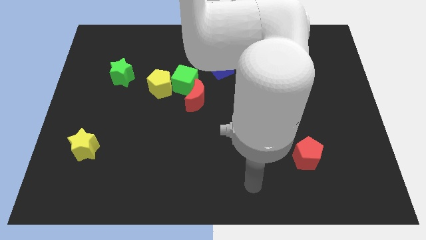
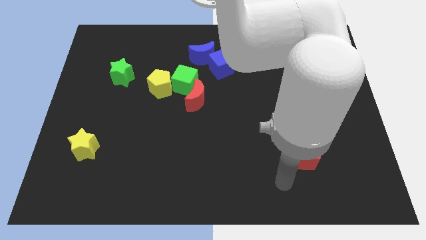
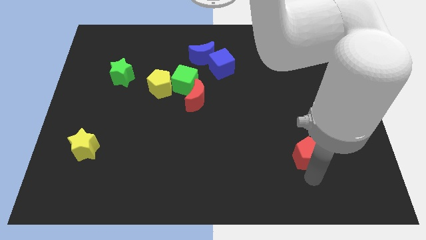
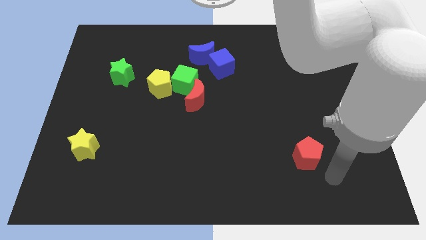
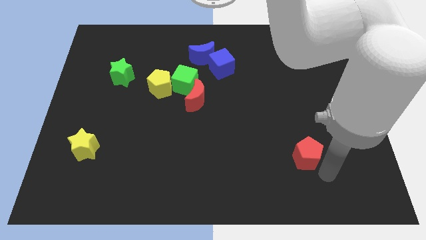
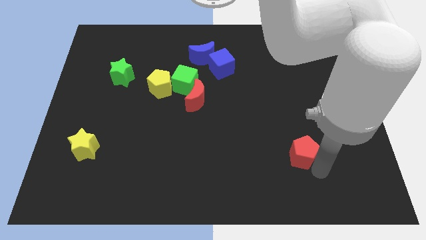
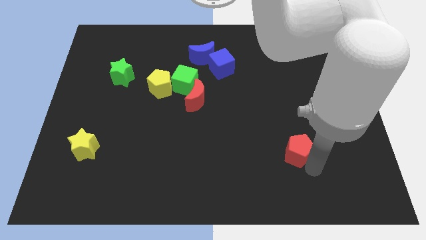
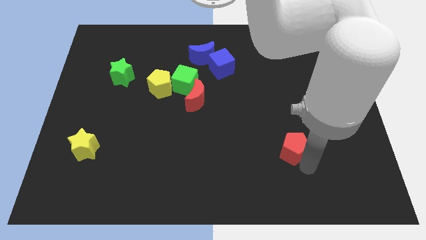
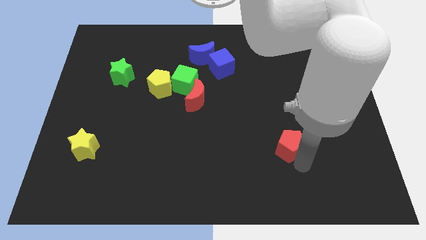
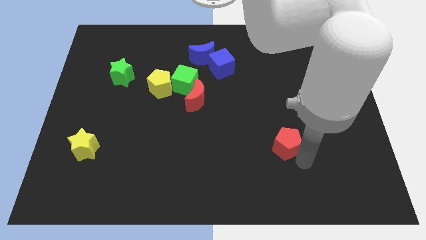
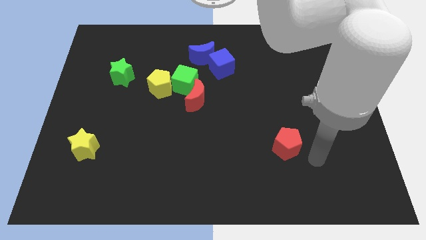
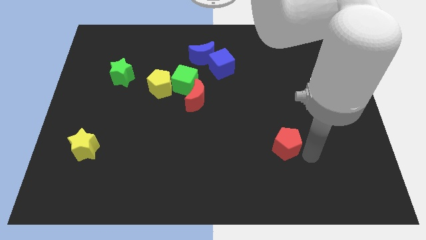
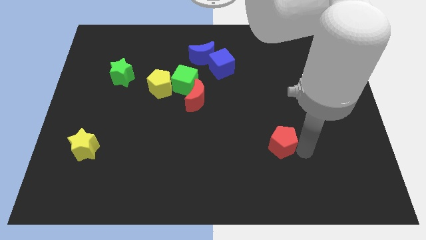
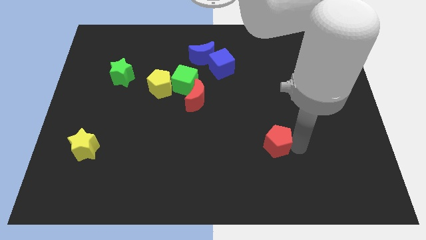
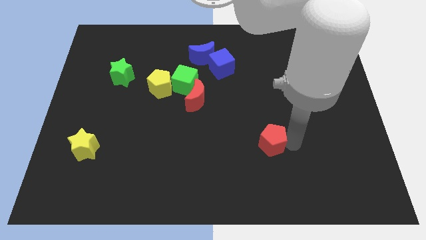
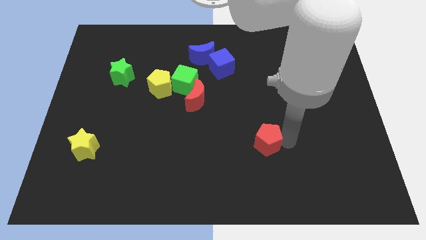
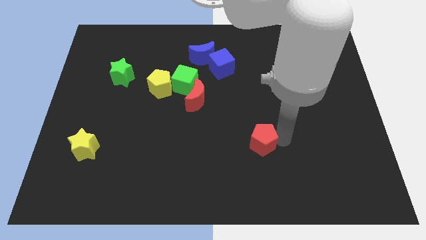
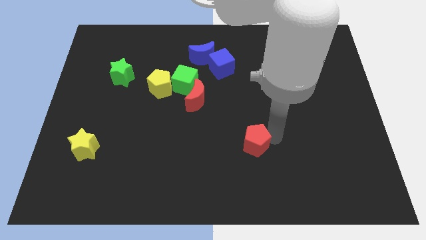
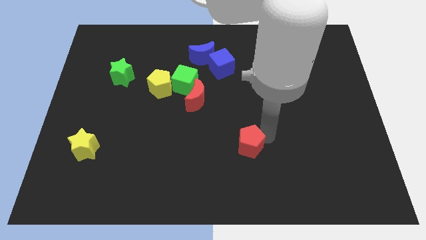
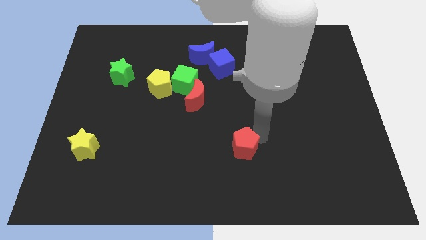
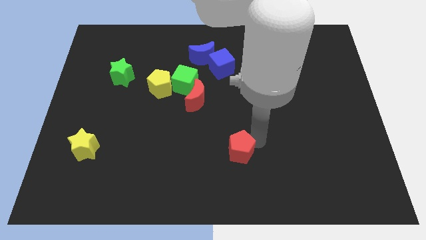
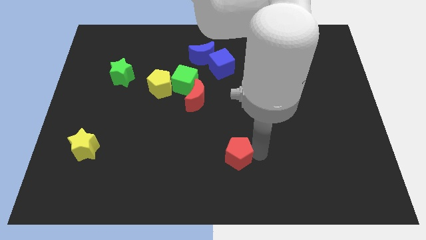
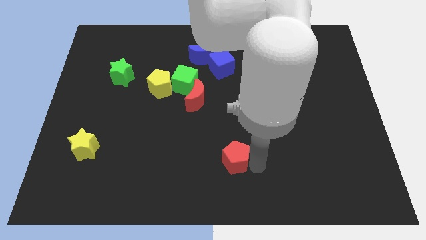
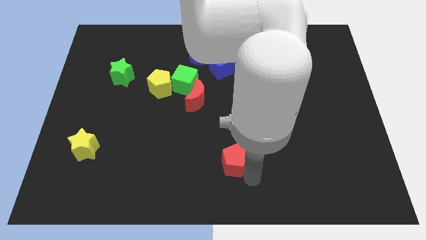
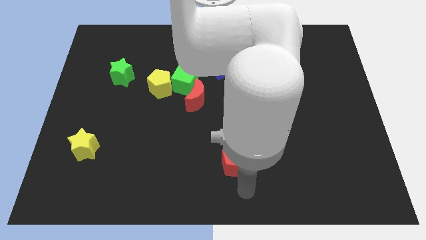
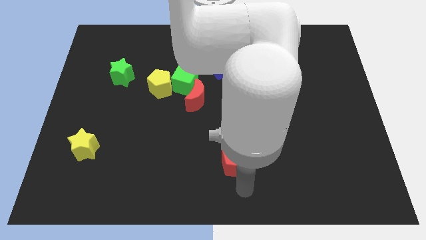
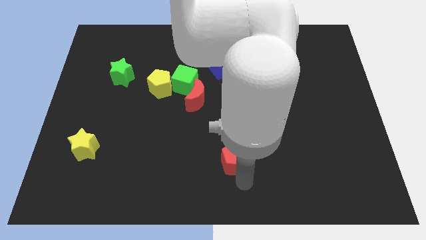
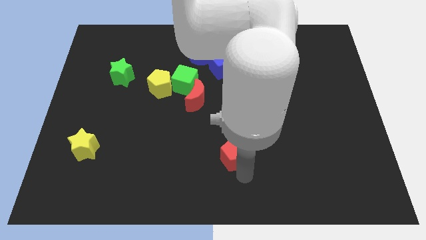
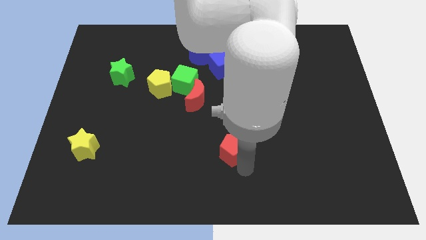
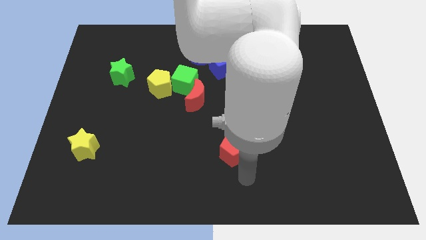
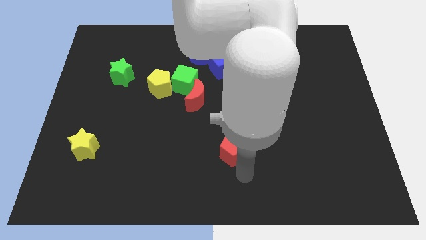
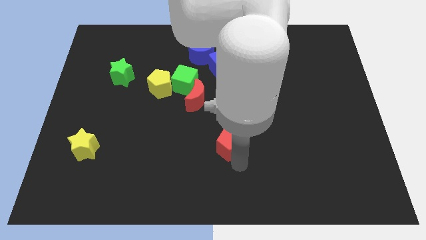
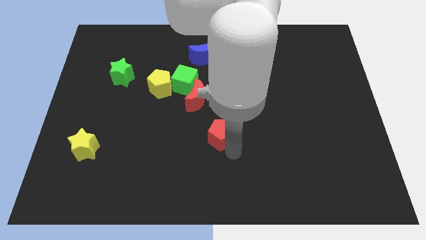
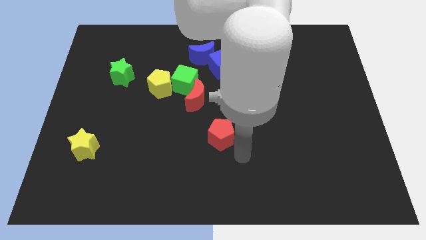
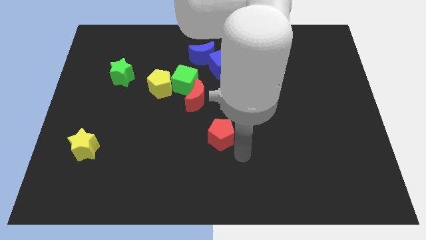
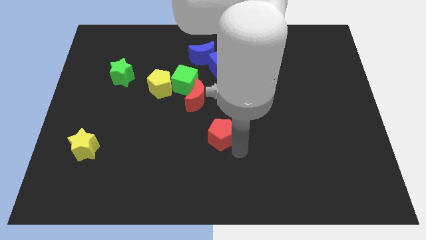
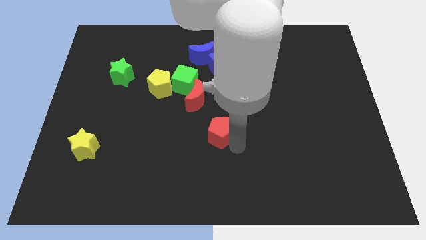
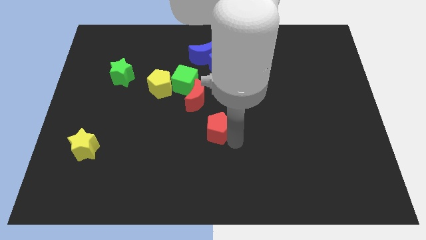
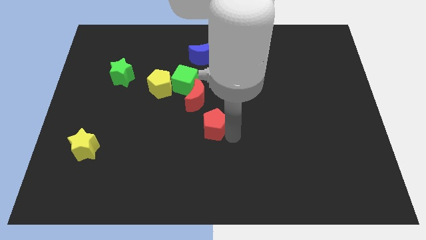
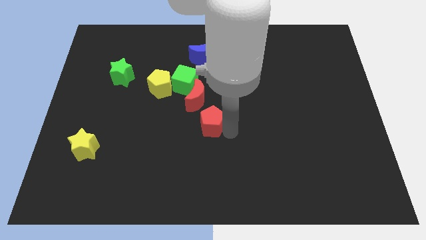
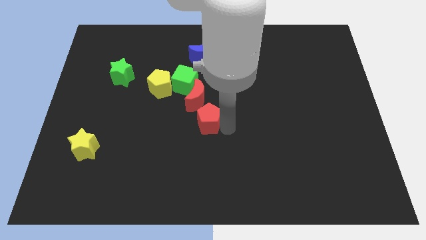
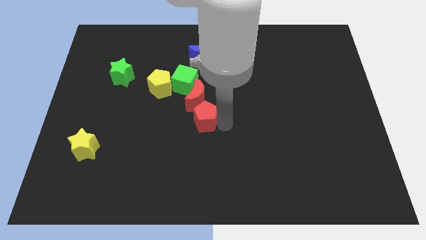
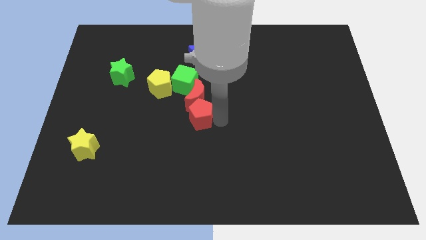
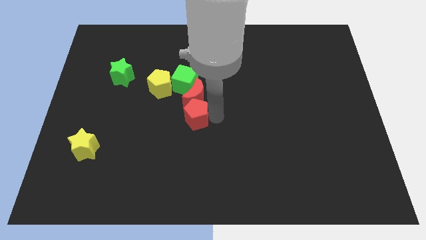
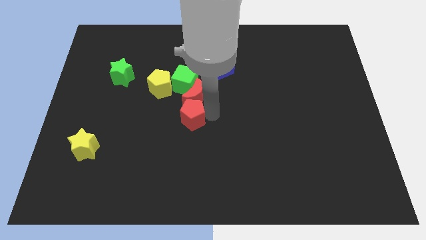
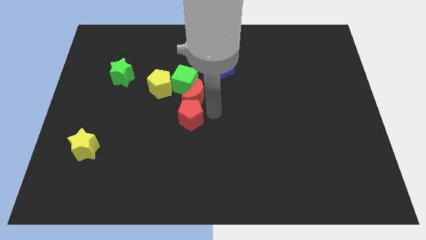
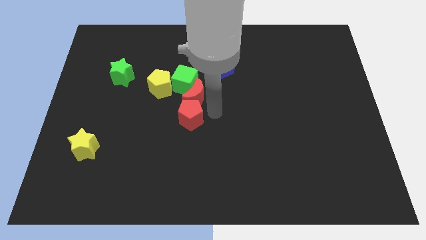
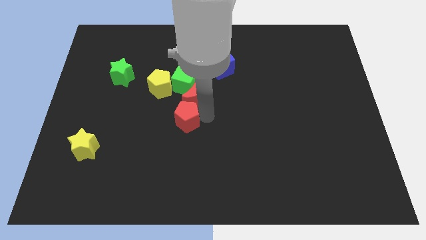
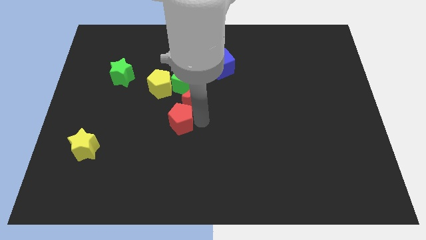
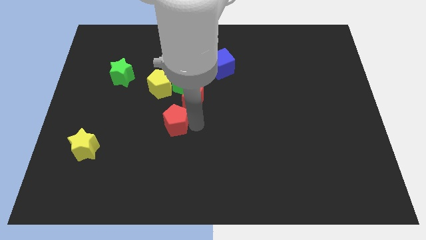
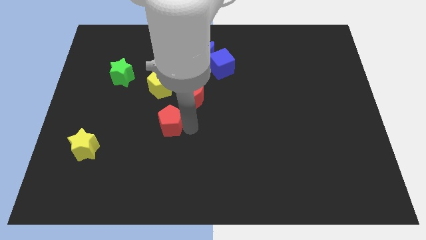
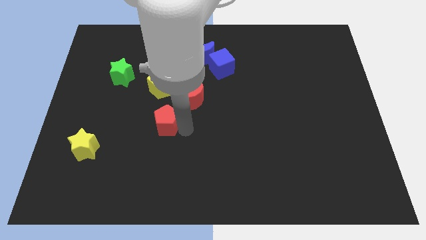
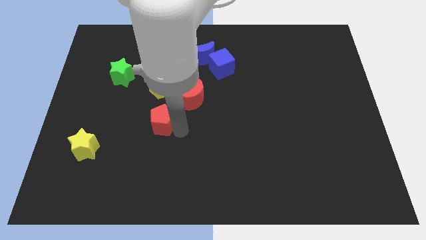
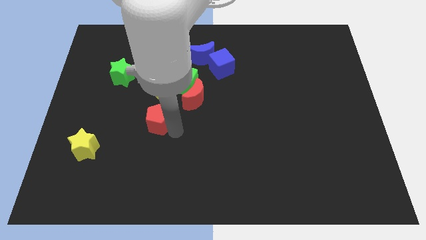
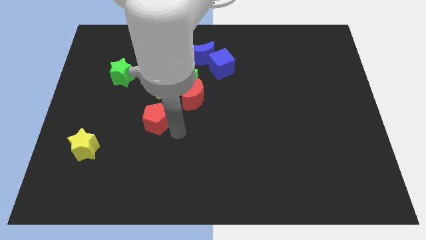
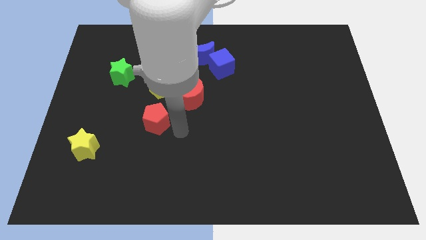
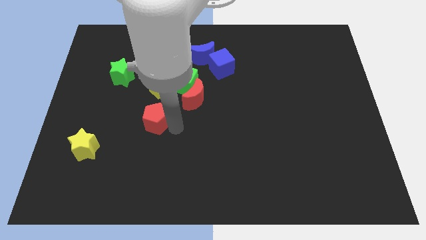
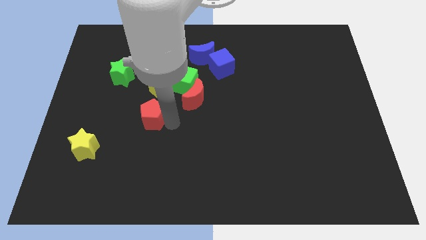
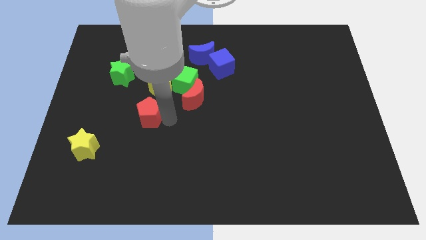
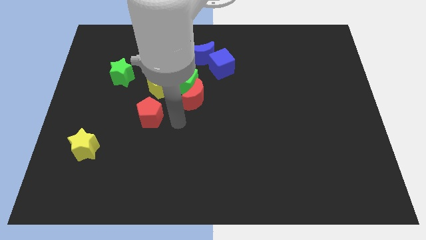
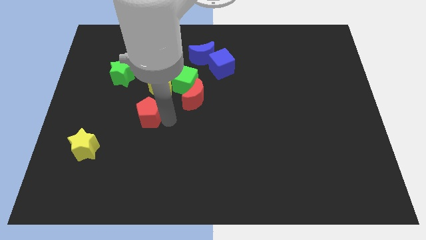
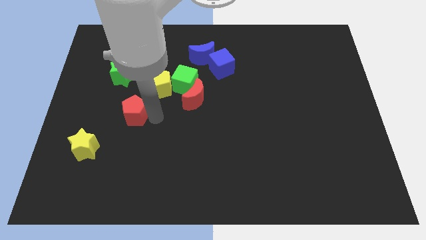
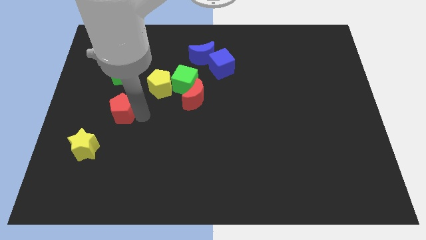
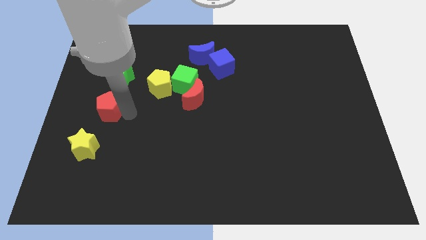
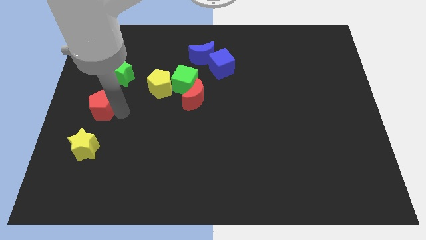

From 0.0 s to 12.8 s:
push the red pentagon to the left side

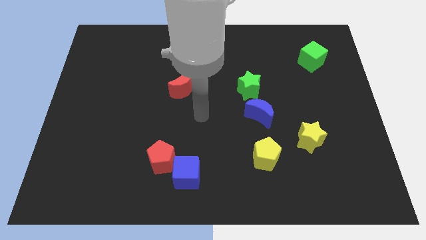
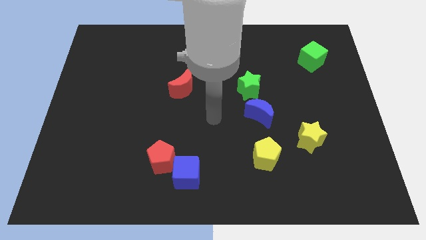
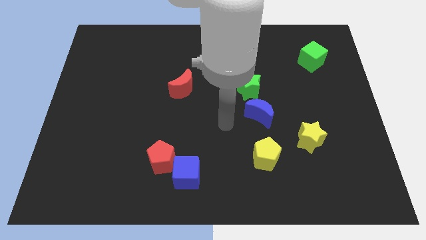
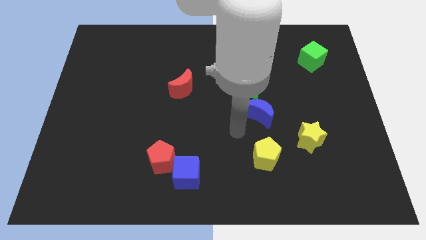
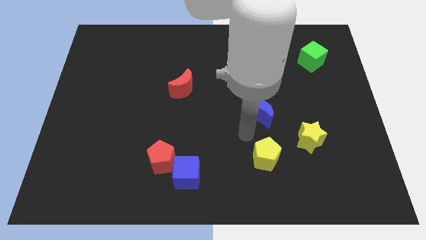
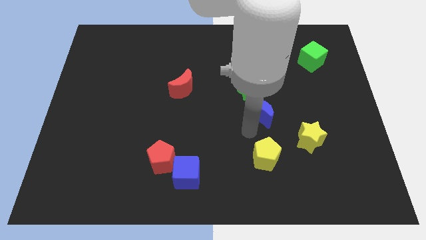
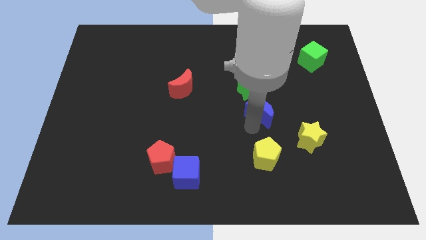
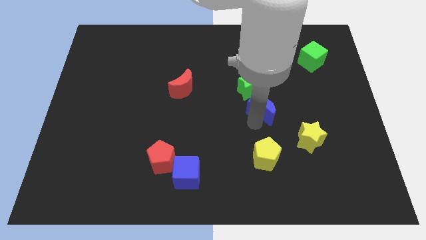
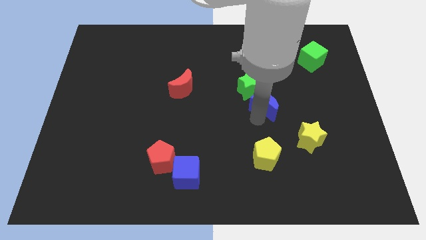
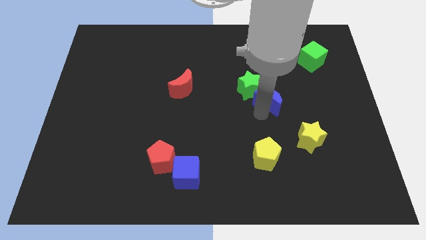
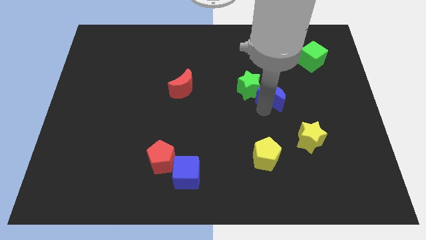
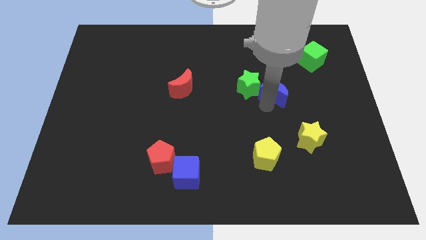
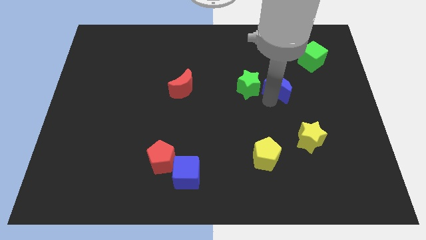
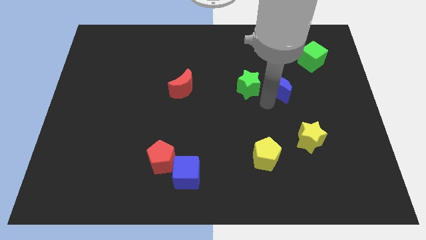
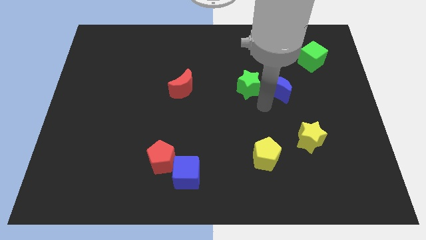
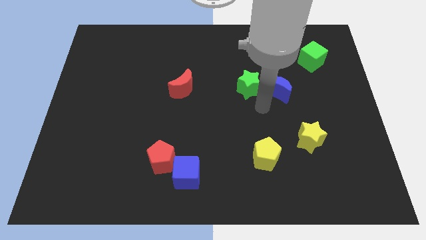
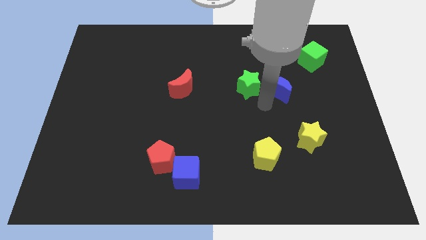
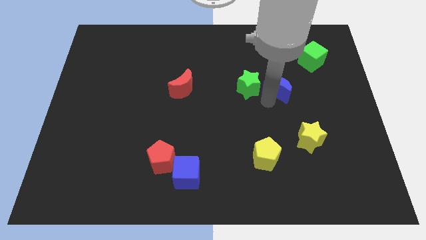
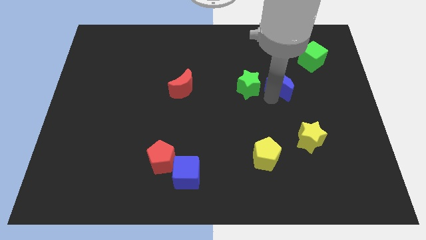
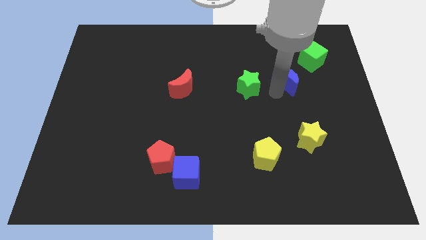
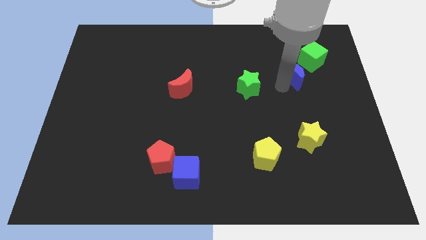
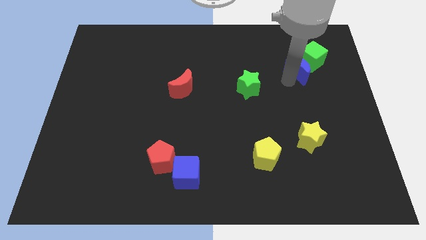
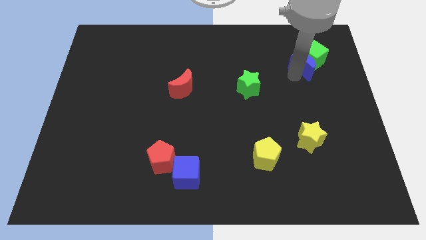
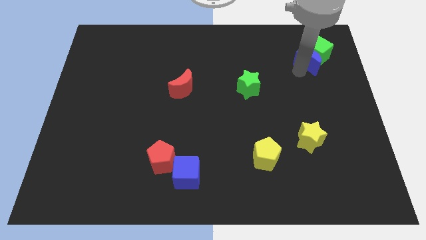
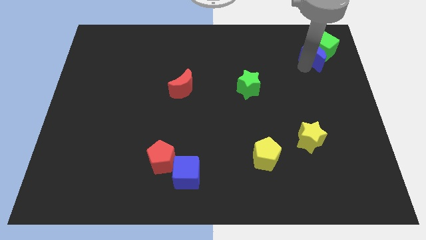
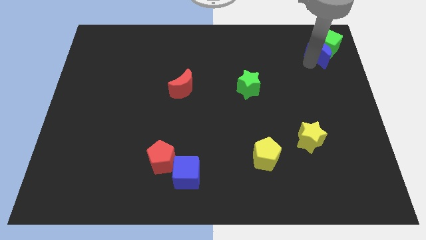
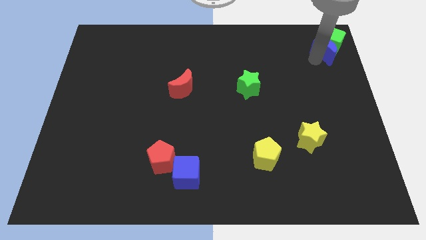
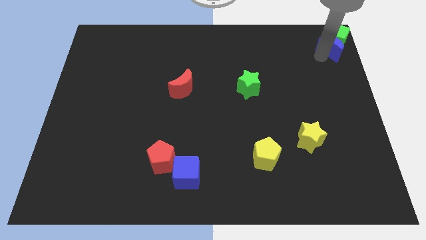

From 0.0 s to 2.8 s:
put the blue moon to the top right
